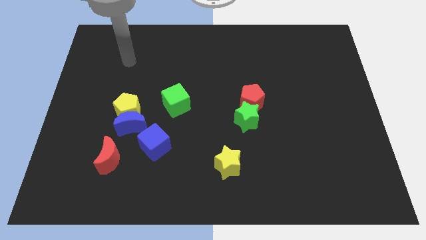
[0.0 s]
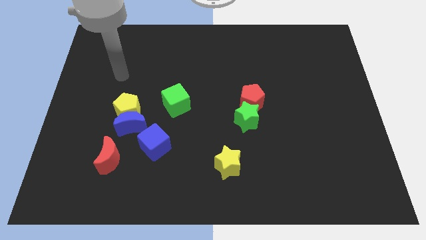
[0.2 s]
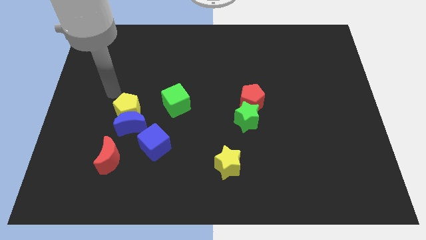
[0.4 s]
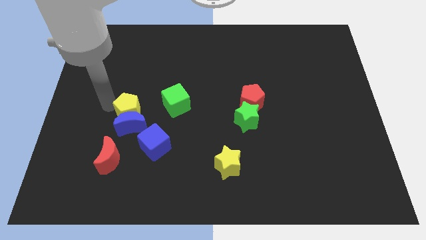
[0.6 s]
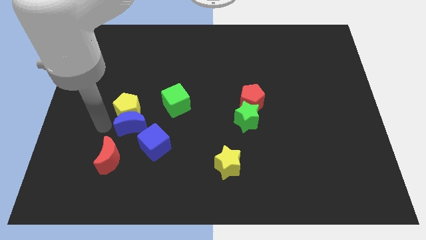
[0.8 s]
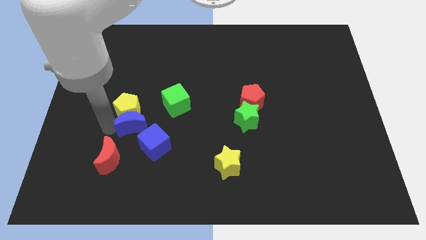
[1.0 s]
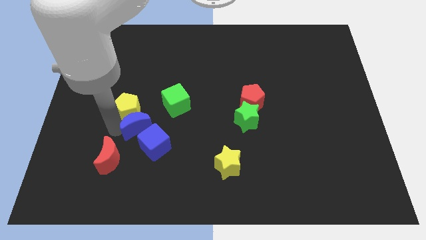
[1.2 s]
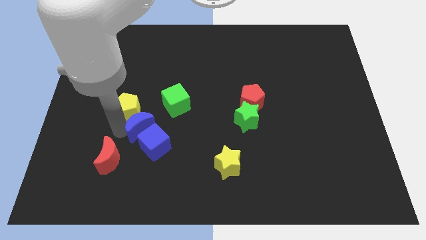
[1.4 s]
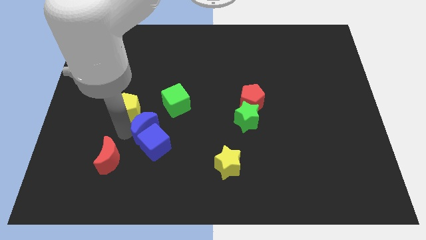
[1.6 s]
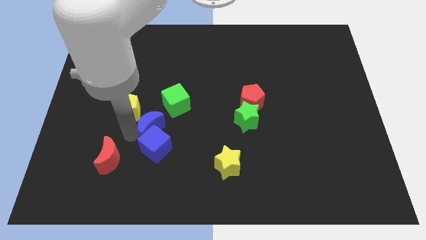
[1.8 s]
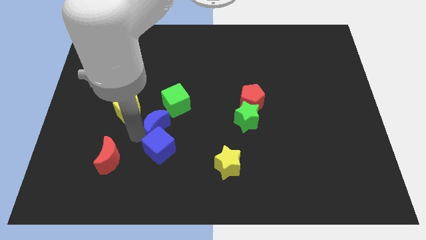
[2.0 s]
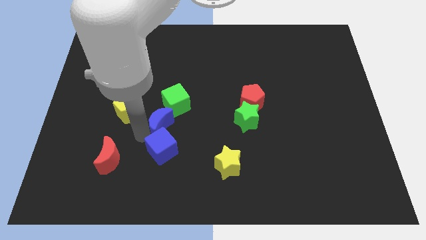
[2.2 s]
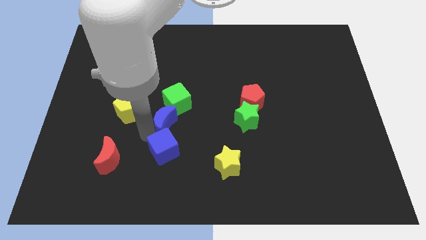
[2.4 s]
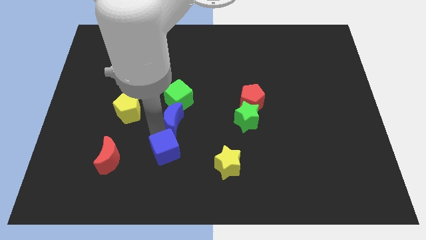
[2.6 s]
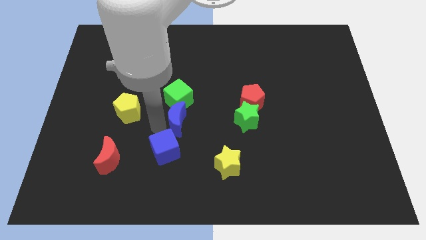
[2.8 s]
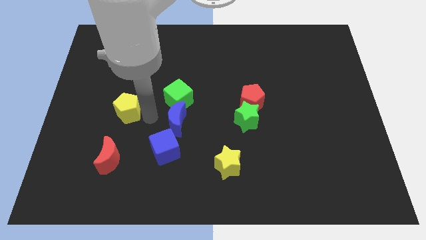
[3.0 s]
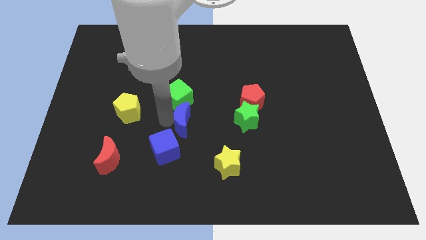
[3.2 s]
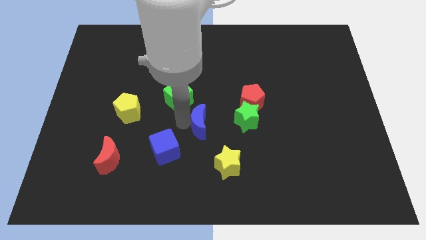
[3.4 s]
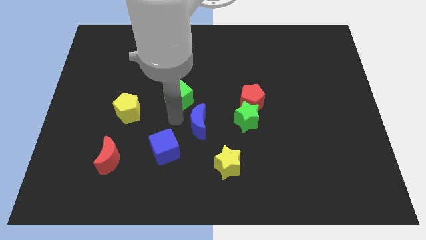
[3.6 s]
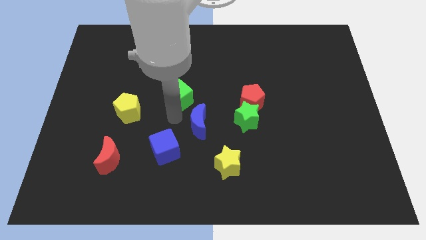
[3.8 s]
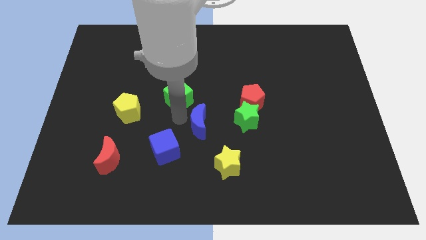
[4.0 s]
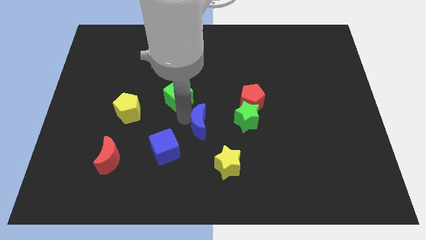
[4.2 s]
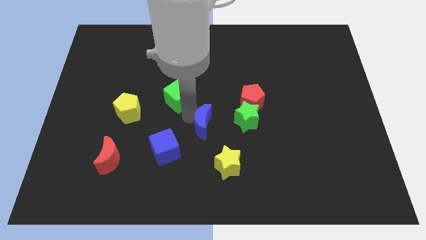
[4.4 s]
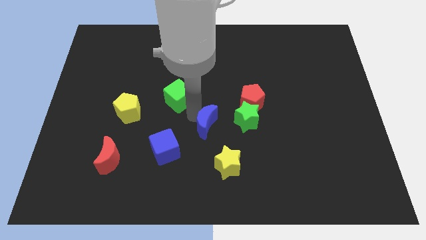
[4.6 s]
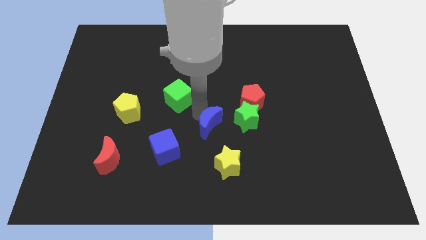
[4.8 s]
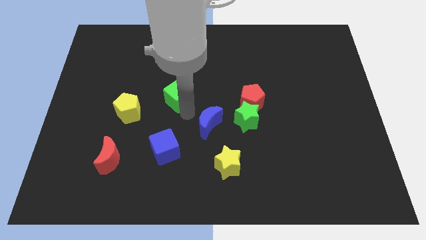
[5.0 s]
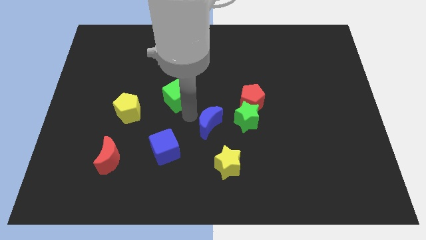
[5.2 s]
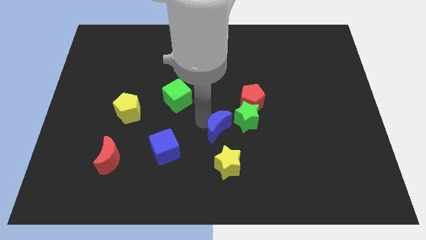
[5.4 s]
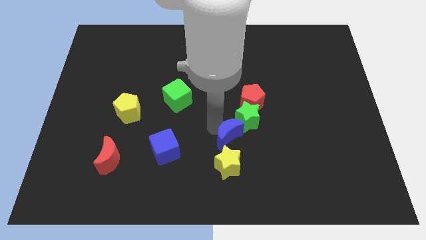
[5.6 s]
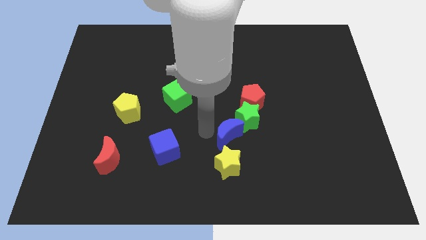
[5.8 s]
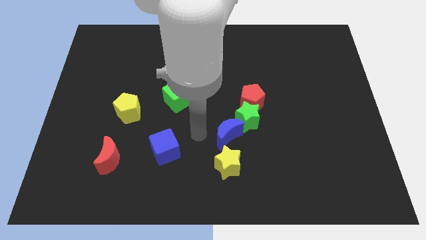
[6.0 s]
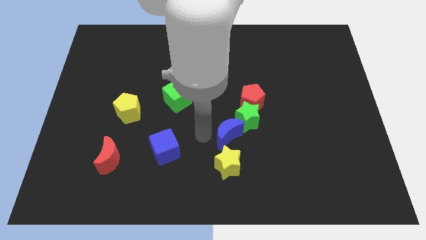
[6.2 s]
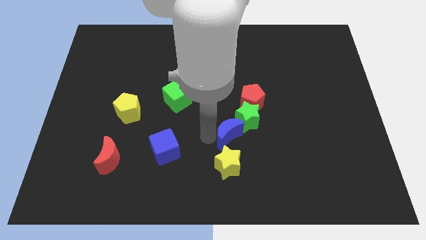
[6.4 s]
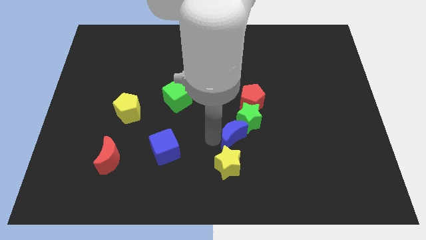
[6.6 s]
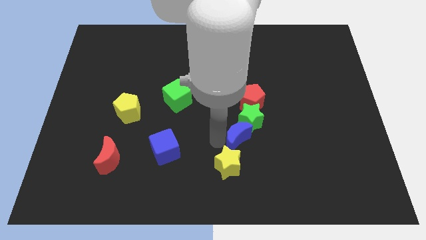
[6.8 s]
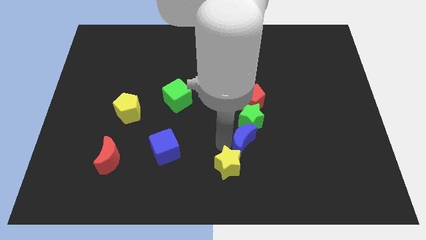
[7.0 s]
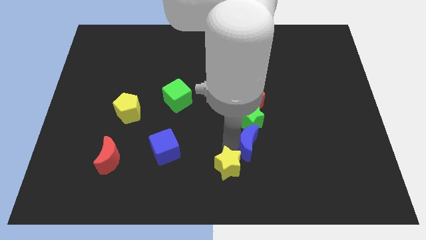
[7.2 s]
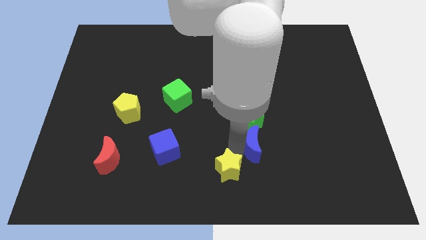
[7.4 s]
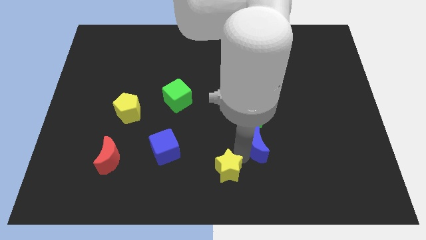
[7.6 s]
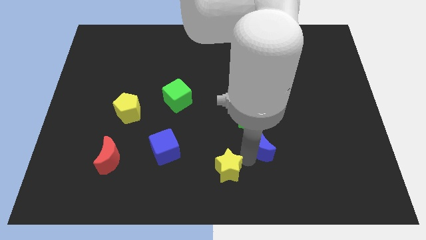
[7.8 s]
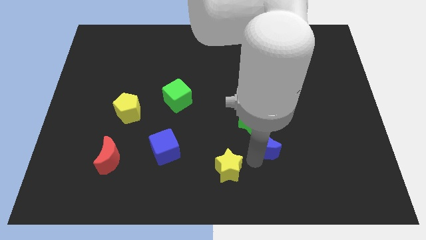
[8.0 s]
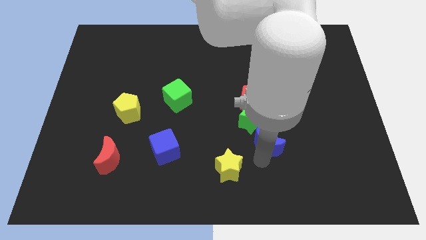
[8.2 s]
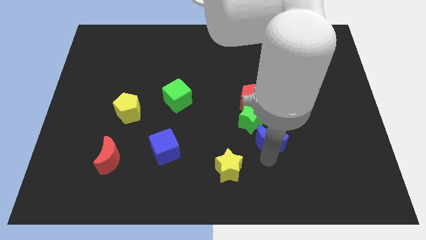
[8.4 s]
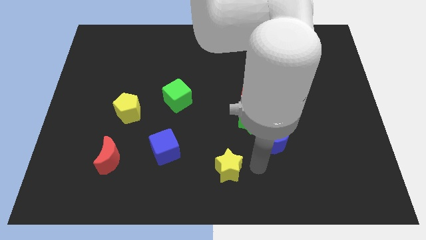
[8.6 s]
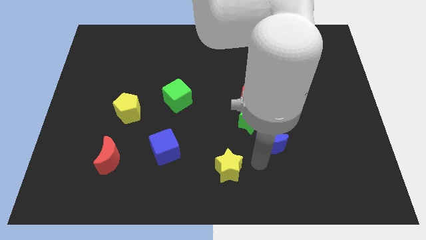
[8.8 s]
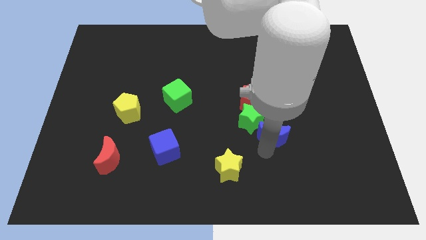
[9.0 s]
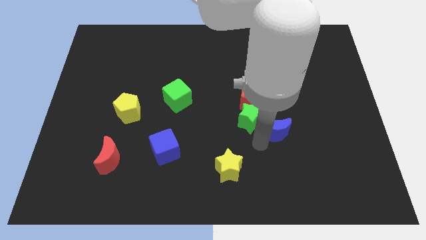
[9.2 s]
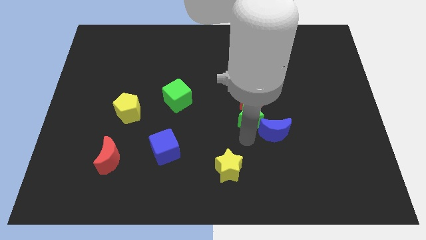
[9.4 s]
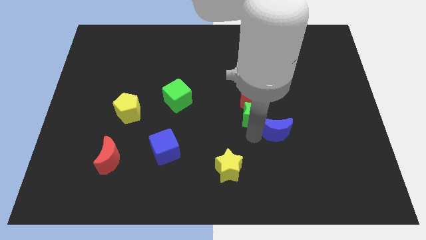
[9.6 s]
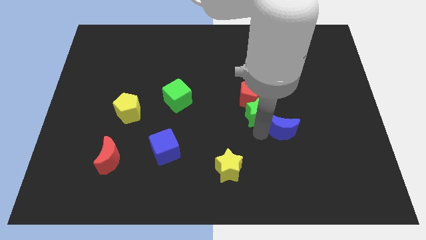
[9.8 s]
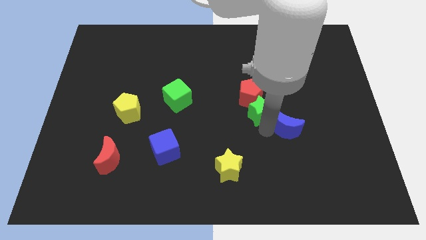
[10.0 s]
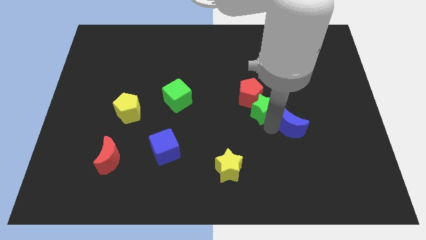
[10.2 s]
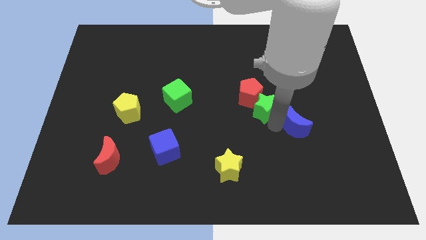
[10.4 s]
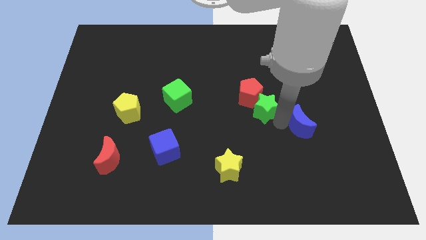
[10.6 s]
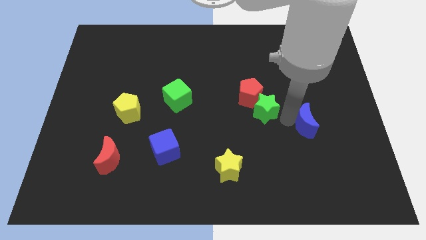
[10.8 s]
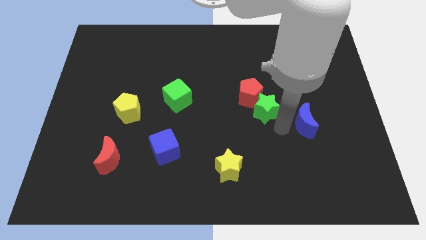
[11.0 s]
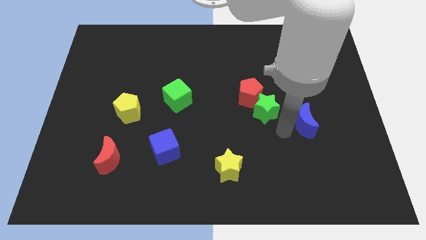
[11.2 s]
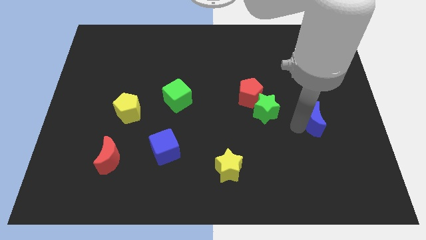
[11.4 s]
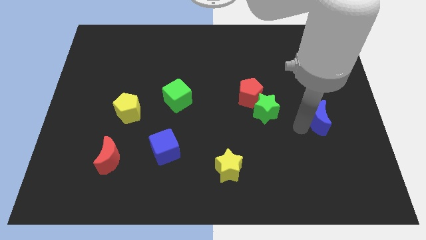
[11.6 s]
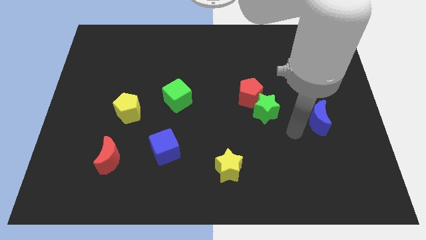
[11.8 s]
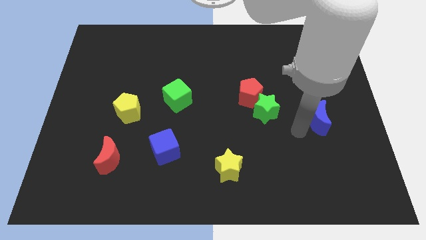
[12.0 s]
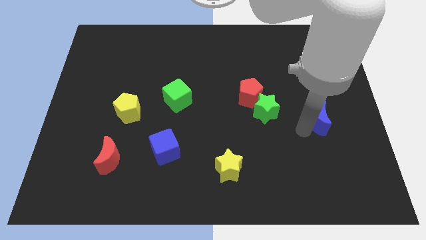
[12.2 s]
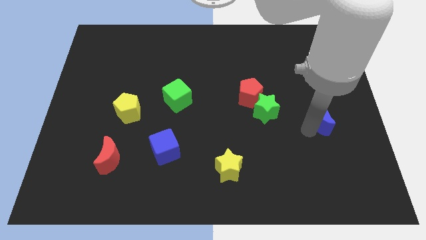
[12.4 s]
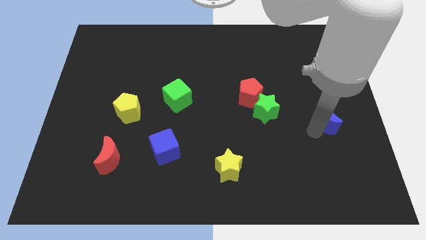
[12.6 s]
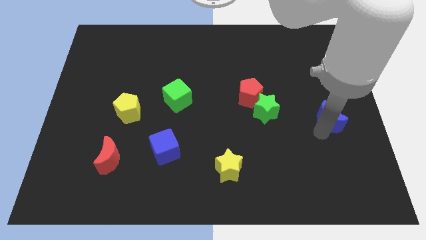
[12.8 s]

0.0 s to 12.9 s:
slide the blue moon to the center right

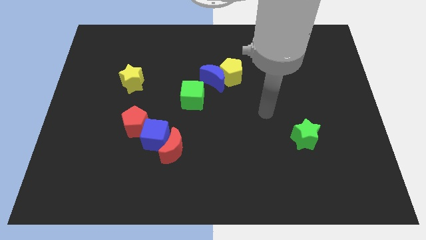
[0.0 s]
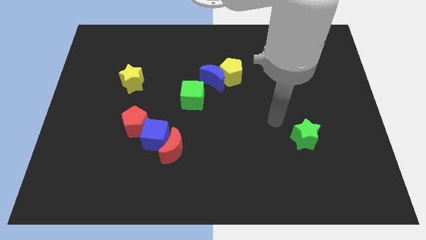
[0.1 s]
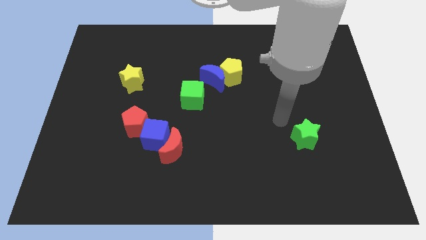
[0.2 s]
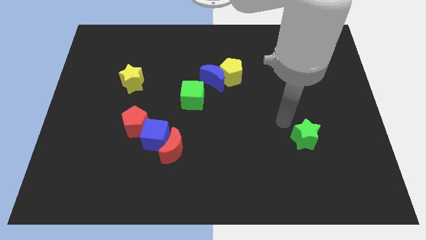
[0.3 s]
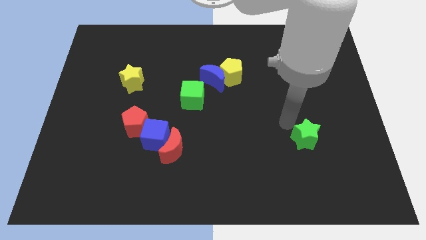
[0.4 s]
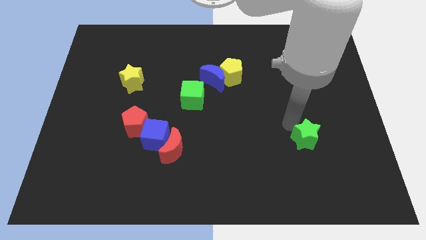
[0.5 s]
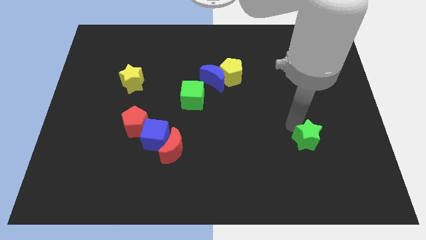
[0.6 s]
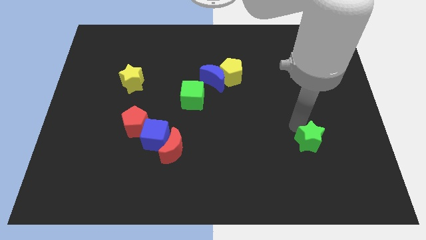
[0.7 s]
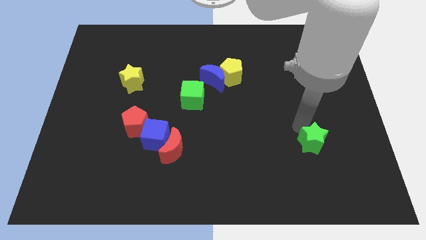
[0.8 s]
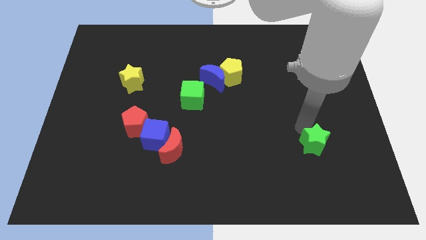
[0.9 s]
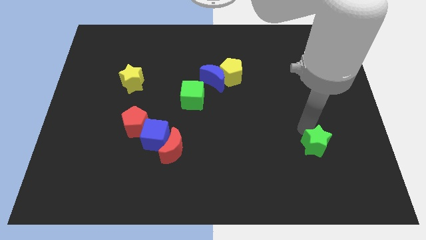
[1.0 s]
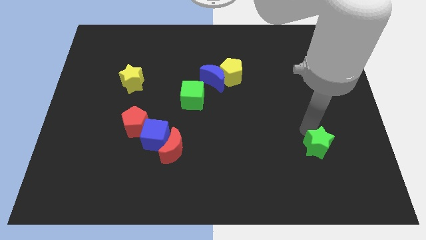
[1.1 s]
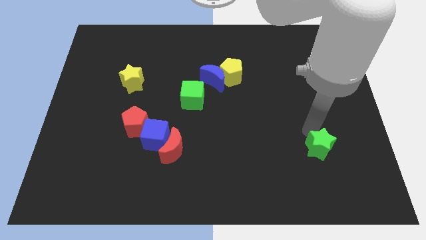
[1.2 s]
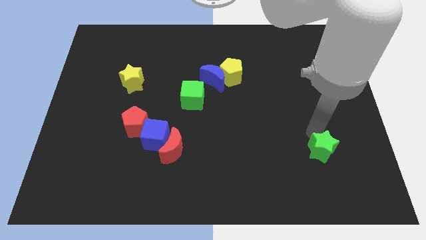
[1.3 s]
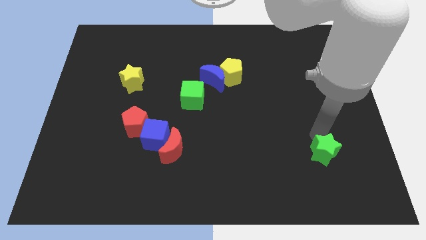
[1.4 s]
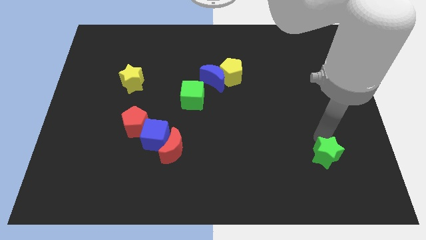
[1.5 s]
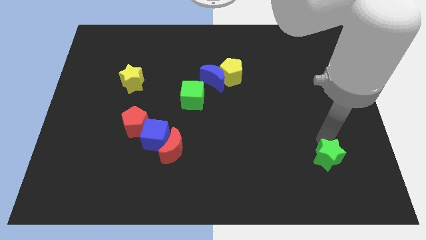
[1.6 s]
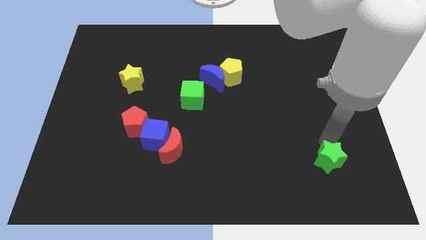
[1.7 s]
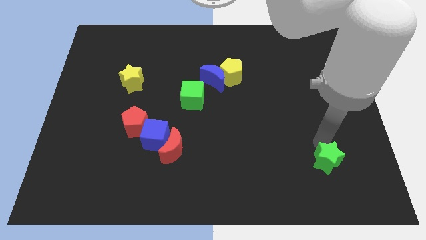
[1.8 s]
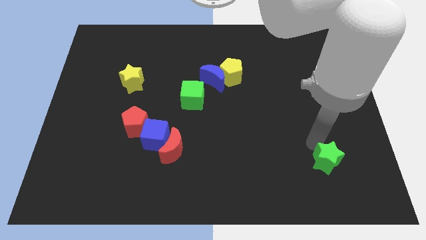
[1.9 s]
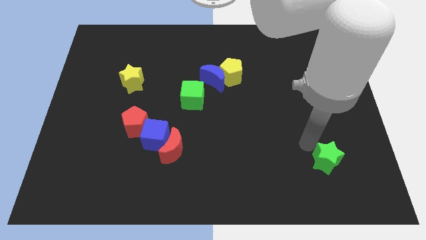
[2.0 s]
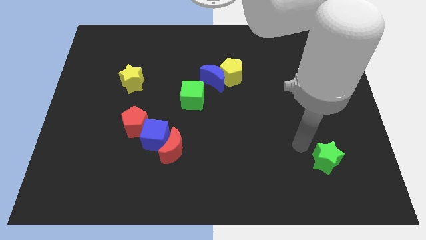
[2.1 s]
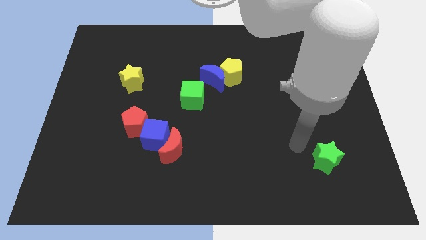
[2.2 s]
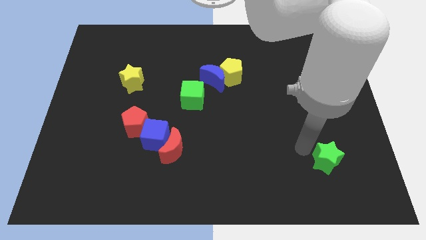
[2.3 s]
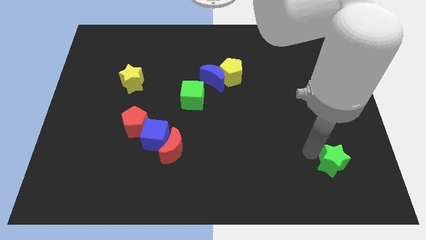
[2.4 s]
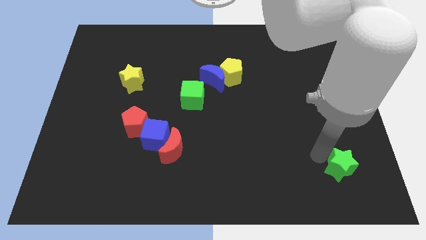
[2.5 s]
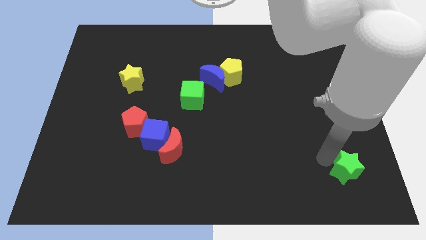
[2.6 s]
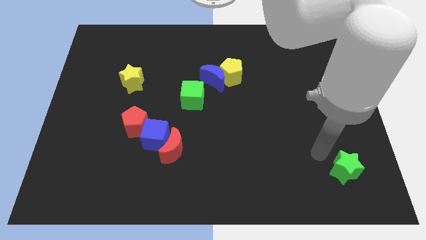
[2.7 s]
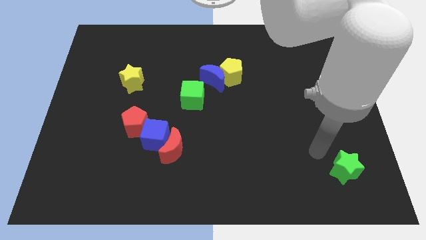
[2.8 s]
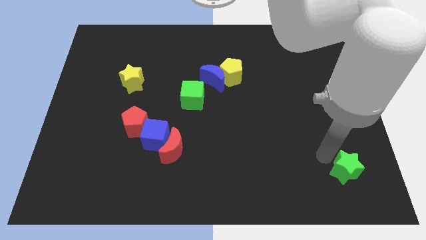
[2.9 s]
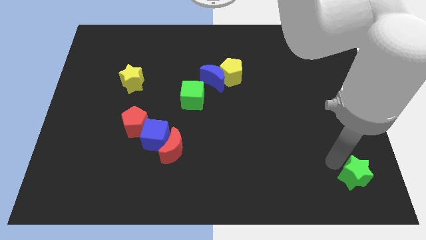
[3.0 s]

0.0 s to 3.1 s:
move the green star to the bottom right of the board
